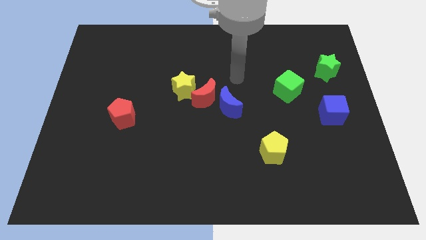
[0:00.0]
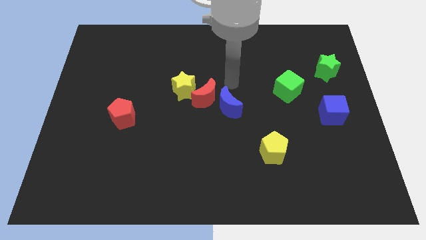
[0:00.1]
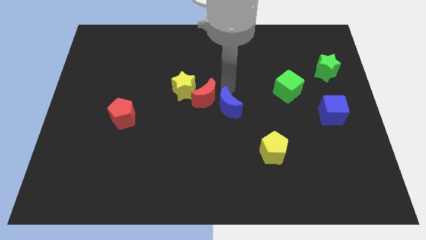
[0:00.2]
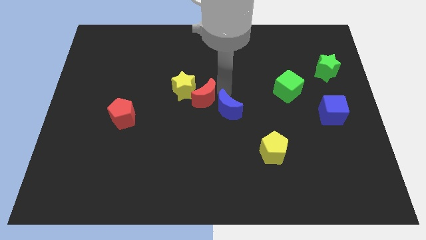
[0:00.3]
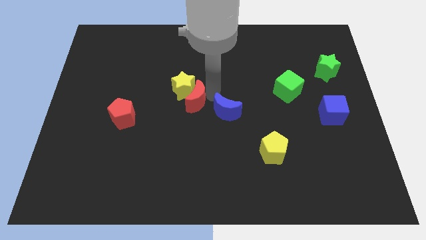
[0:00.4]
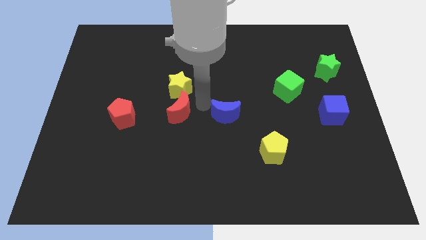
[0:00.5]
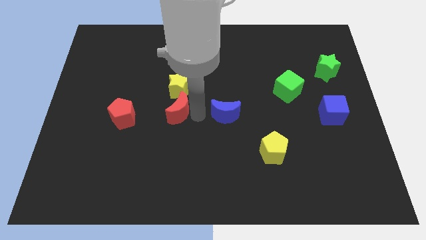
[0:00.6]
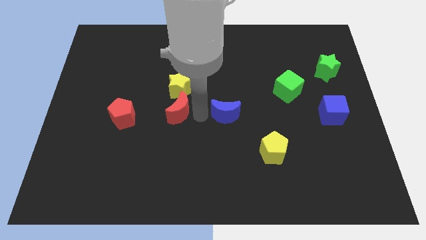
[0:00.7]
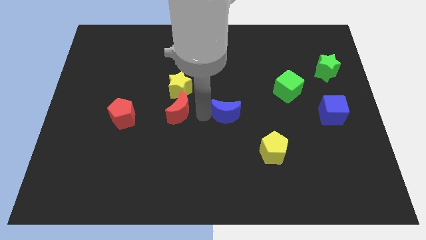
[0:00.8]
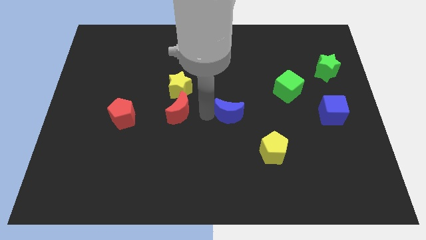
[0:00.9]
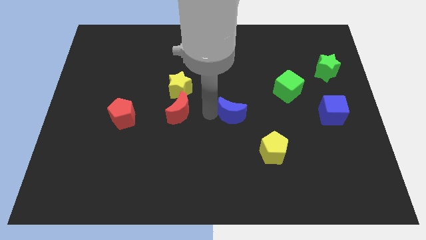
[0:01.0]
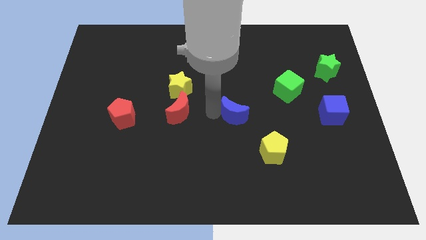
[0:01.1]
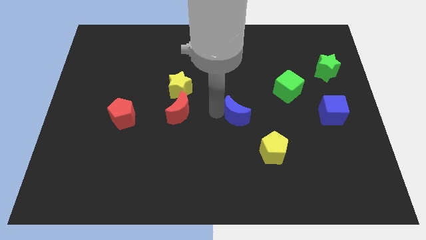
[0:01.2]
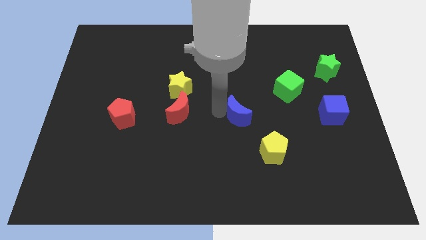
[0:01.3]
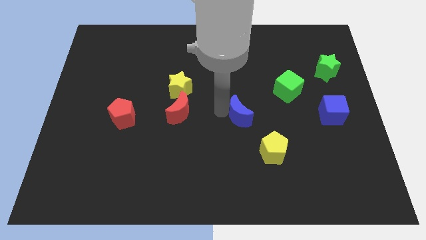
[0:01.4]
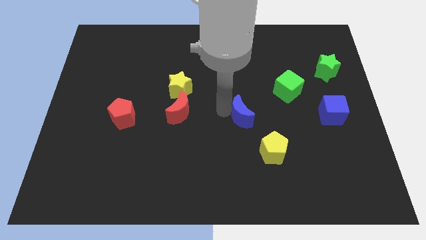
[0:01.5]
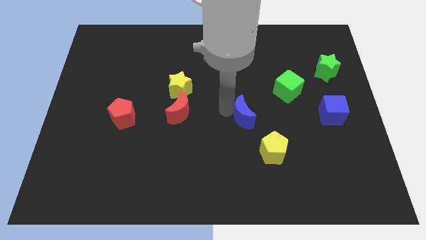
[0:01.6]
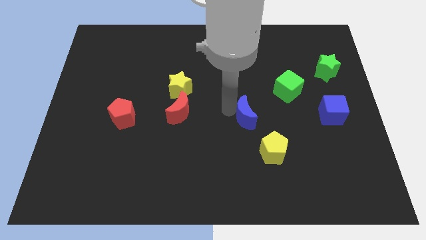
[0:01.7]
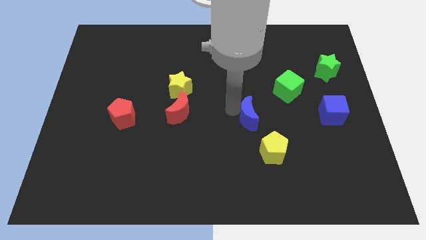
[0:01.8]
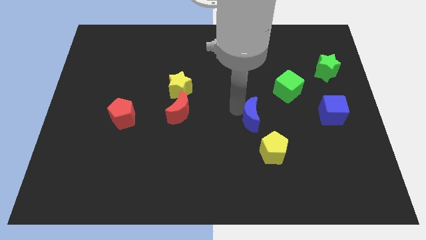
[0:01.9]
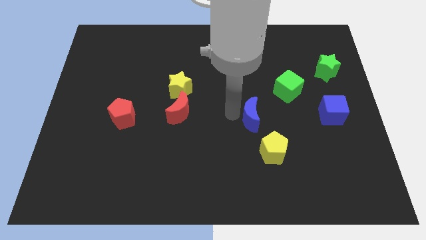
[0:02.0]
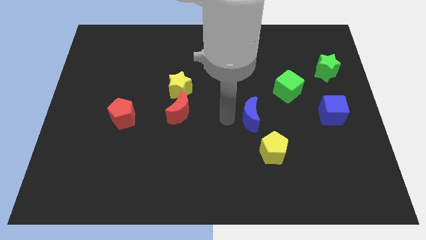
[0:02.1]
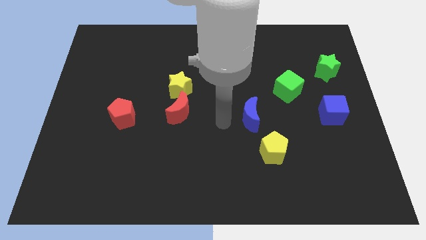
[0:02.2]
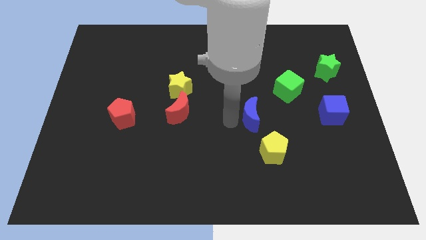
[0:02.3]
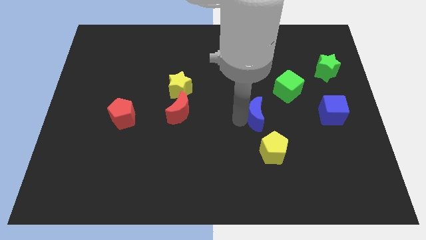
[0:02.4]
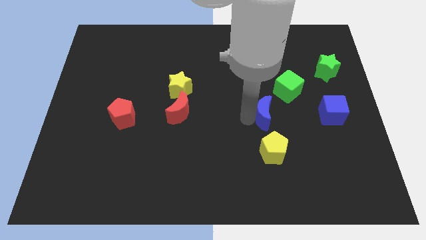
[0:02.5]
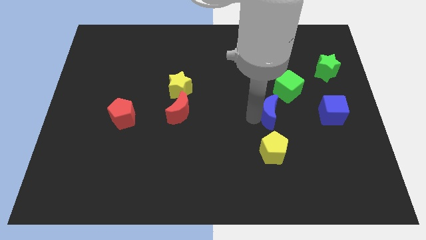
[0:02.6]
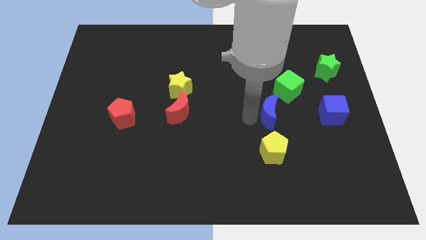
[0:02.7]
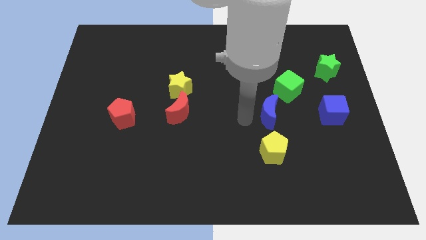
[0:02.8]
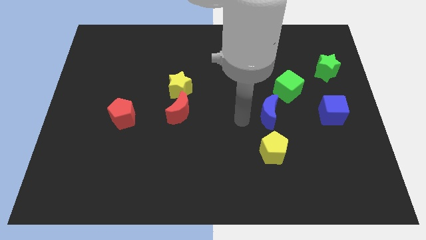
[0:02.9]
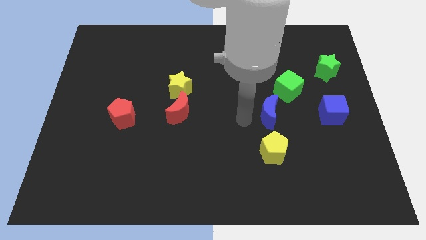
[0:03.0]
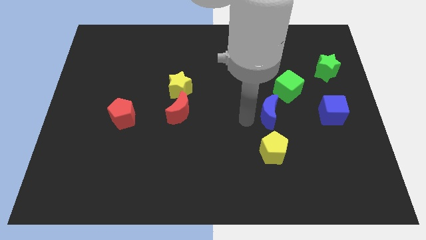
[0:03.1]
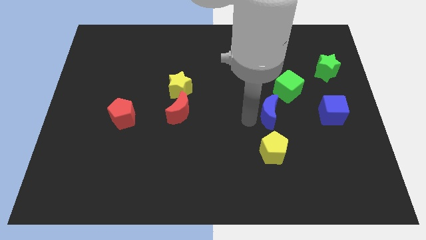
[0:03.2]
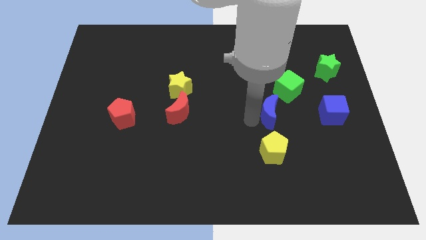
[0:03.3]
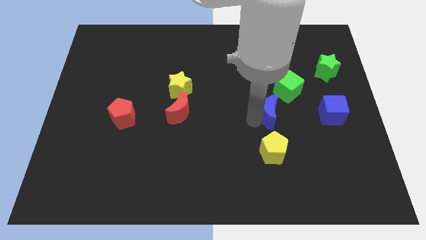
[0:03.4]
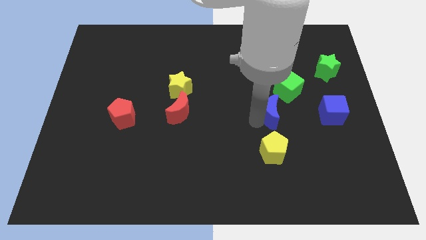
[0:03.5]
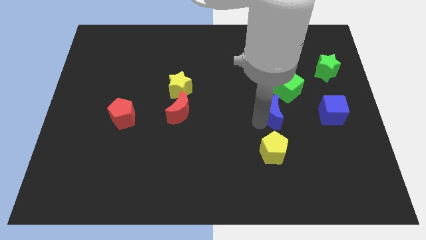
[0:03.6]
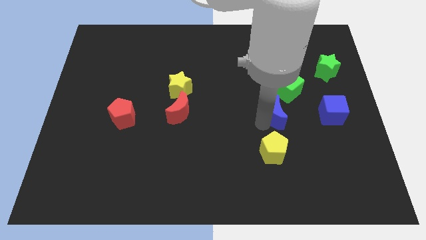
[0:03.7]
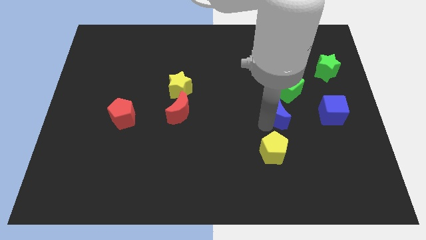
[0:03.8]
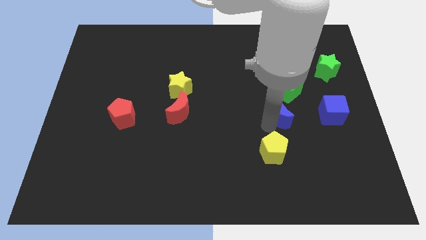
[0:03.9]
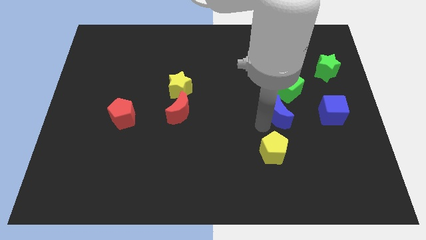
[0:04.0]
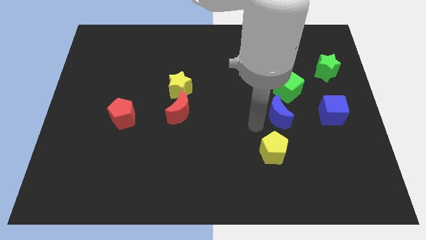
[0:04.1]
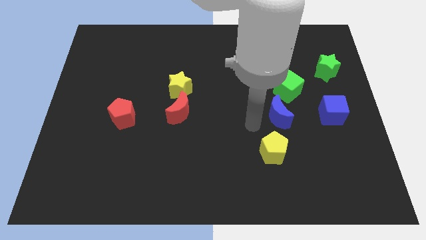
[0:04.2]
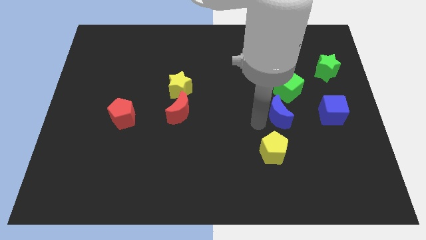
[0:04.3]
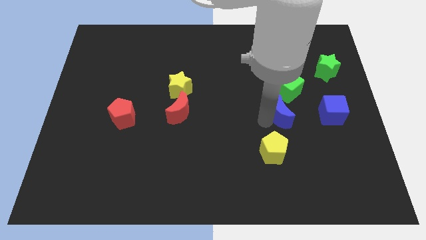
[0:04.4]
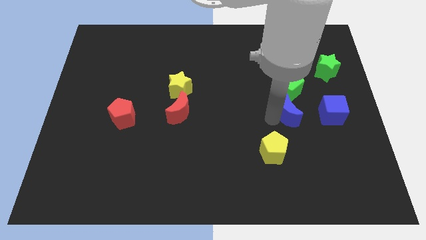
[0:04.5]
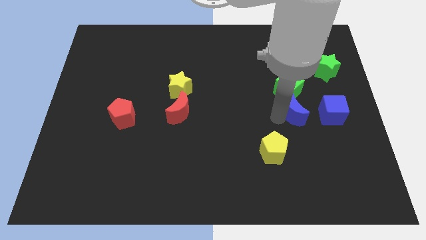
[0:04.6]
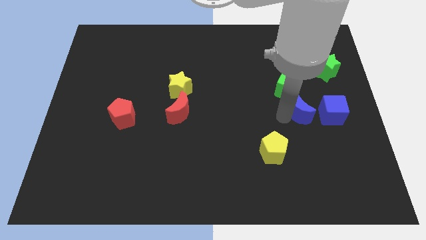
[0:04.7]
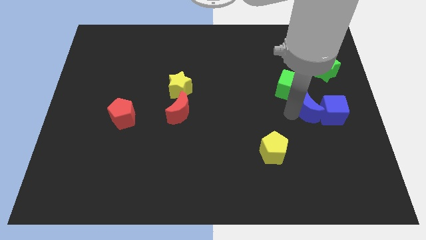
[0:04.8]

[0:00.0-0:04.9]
slide the blue moon to the blue cube

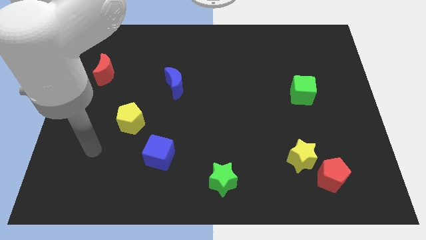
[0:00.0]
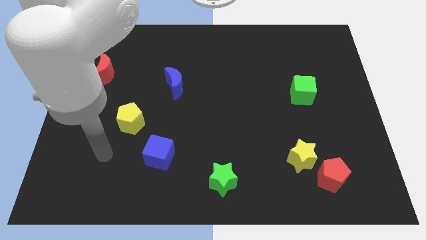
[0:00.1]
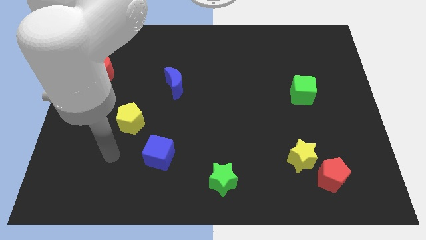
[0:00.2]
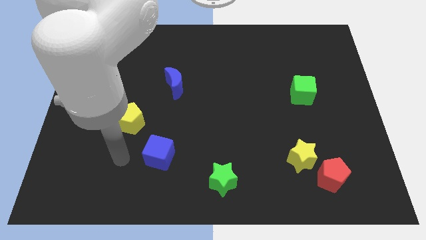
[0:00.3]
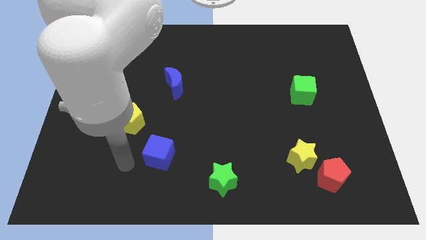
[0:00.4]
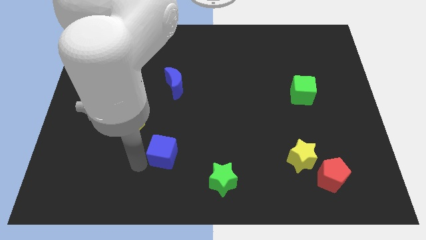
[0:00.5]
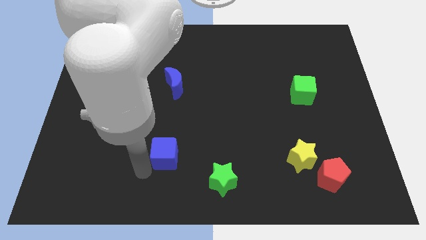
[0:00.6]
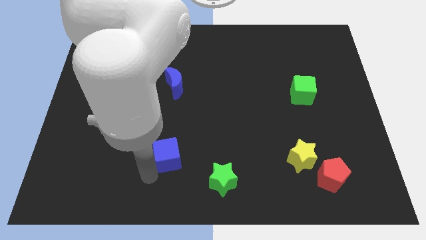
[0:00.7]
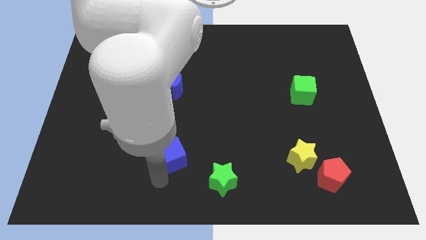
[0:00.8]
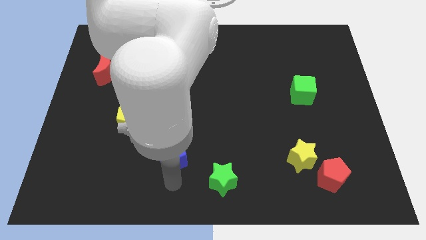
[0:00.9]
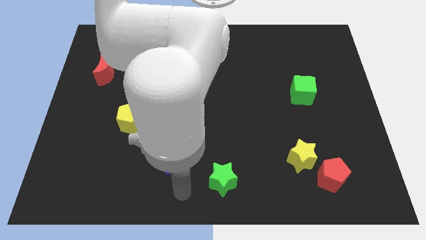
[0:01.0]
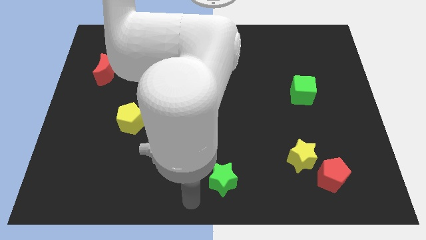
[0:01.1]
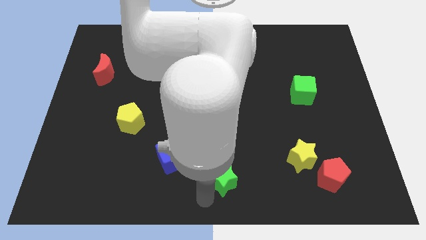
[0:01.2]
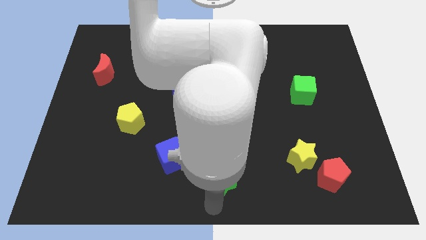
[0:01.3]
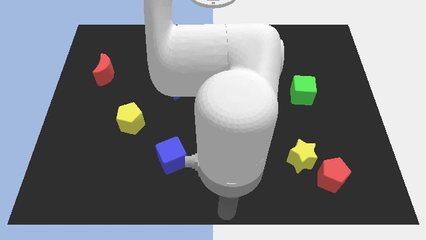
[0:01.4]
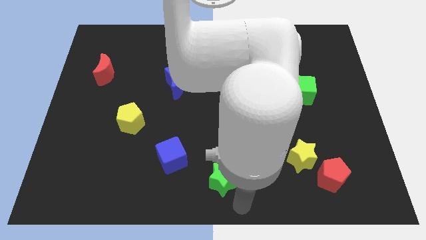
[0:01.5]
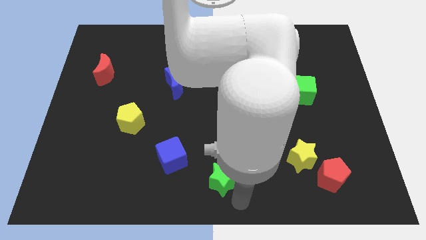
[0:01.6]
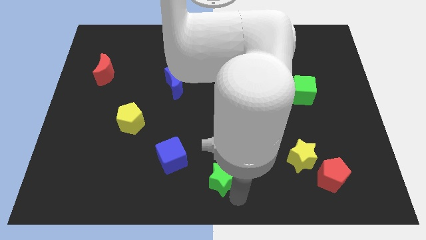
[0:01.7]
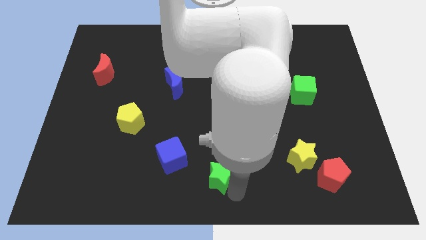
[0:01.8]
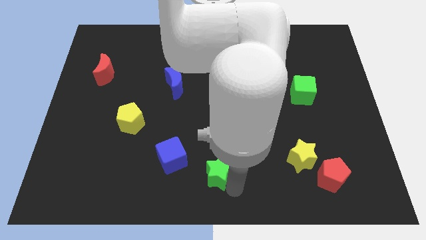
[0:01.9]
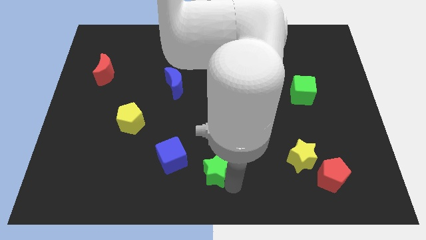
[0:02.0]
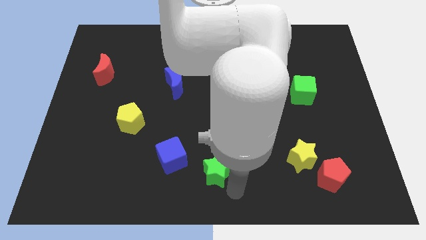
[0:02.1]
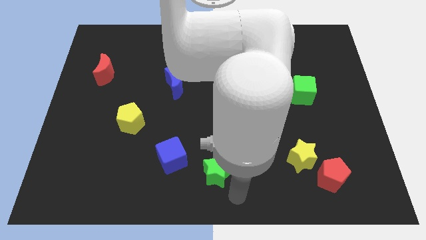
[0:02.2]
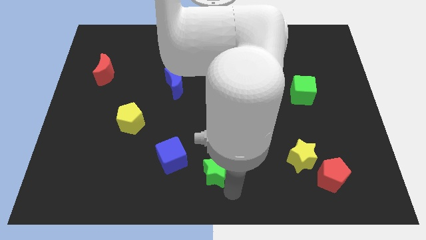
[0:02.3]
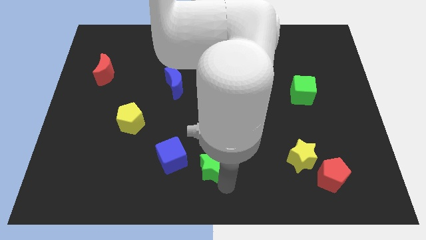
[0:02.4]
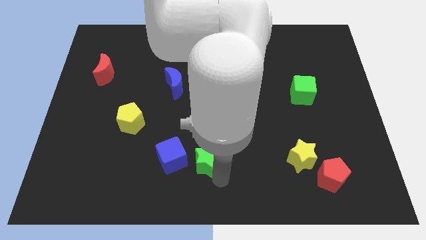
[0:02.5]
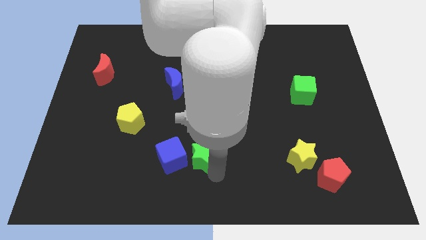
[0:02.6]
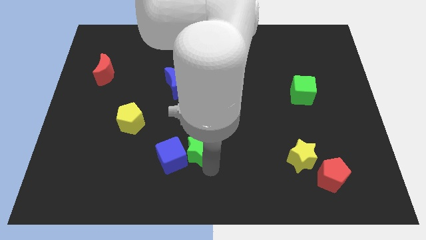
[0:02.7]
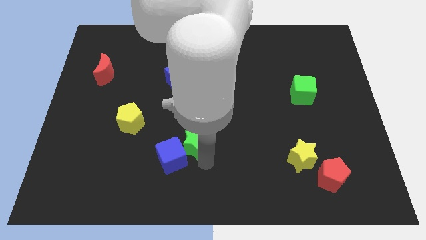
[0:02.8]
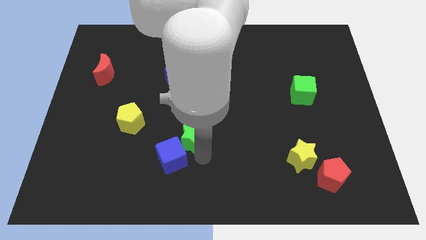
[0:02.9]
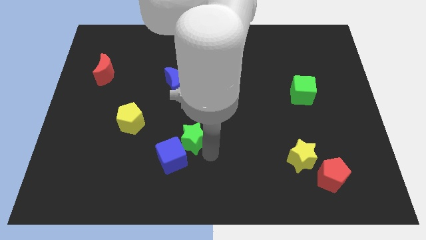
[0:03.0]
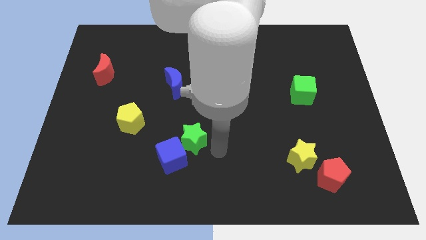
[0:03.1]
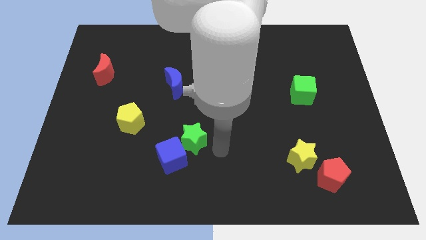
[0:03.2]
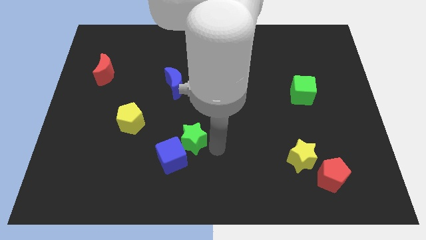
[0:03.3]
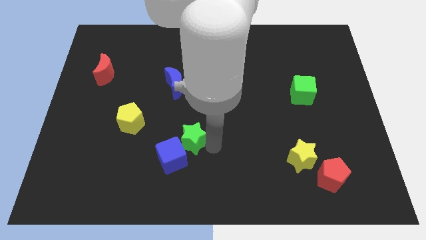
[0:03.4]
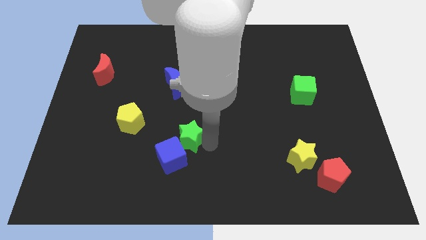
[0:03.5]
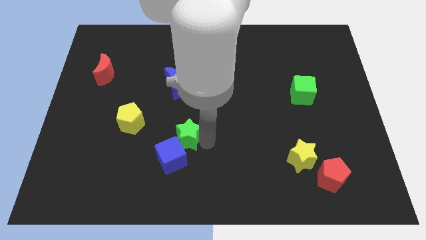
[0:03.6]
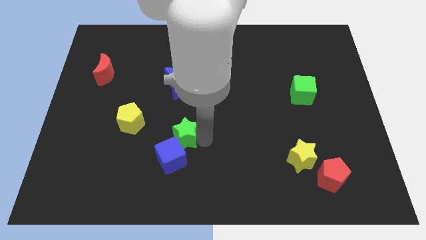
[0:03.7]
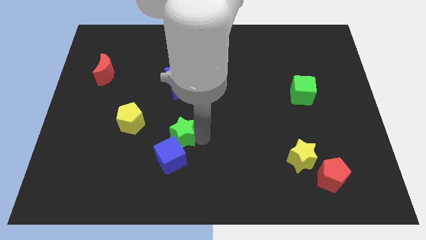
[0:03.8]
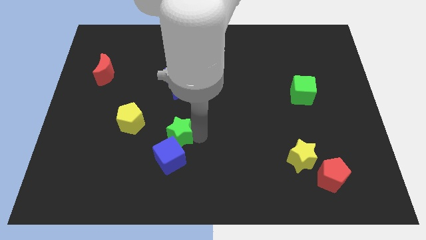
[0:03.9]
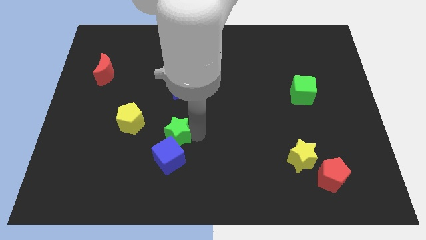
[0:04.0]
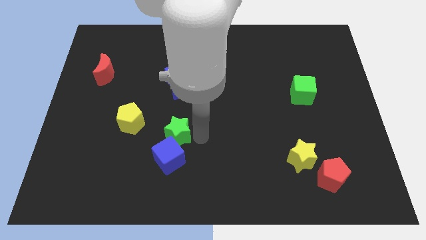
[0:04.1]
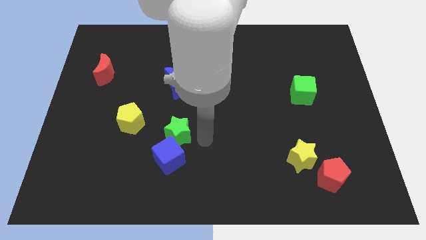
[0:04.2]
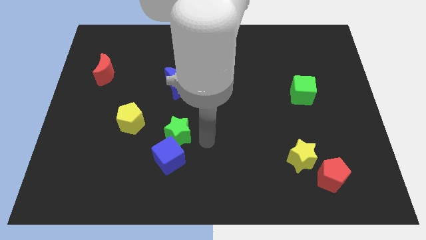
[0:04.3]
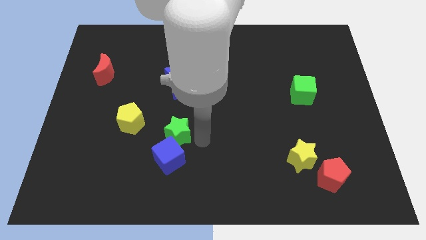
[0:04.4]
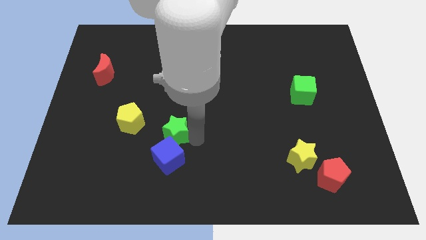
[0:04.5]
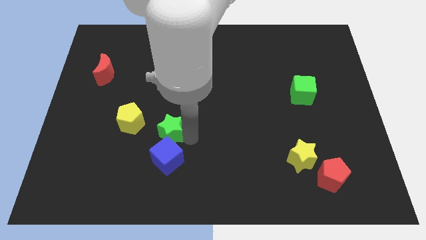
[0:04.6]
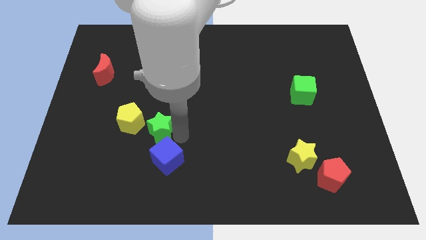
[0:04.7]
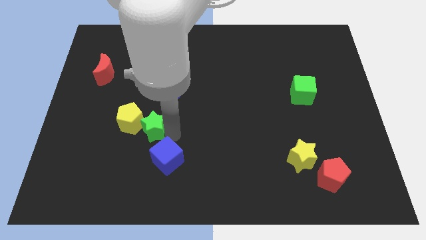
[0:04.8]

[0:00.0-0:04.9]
slide the green star towards the yellow pentagon
